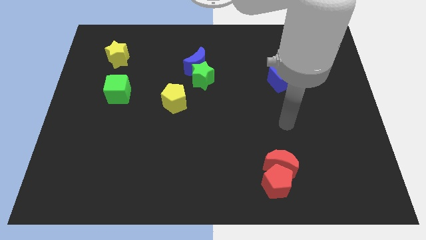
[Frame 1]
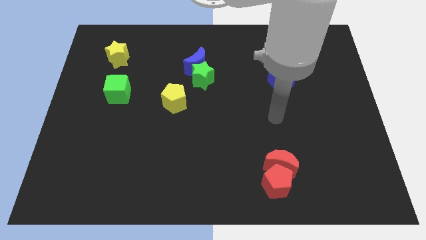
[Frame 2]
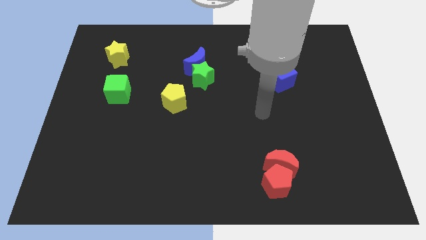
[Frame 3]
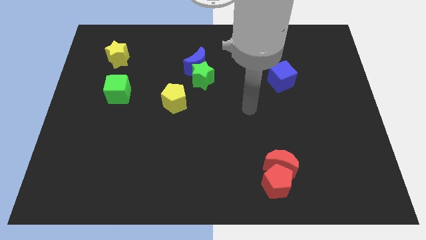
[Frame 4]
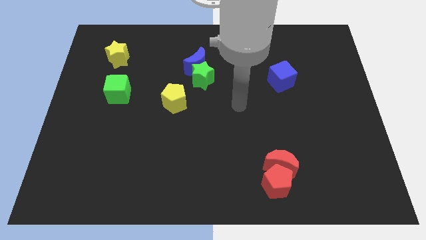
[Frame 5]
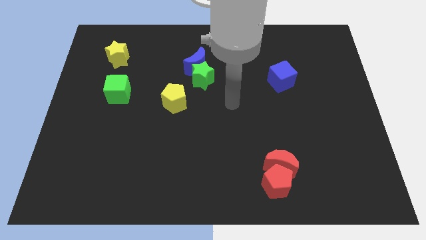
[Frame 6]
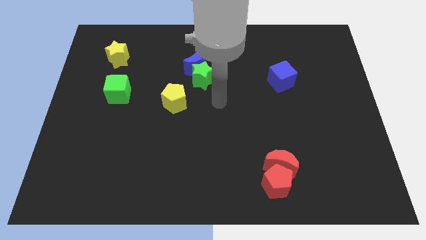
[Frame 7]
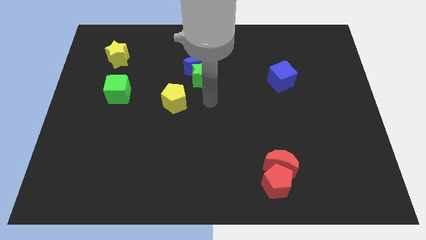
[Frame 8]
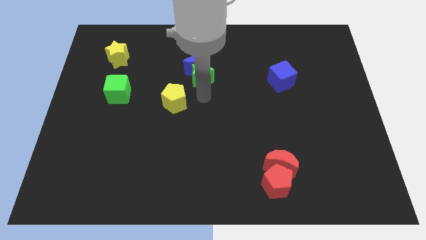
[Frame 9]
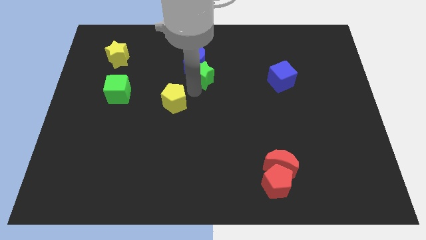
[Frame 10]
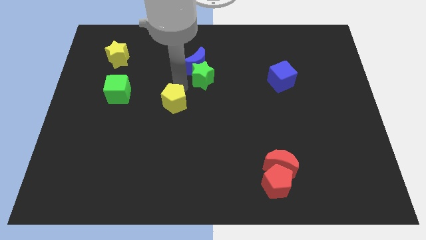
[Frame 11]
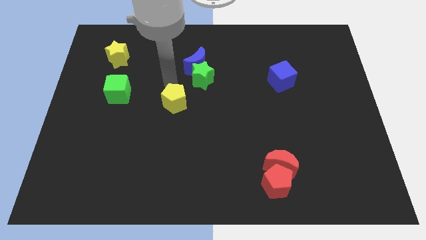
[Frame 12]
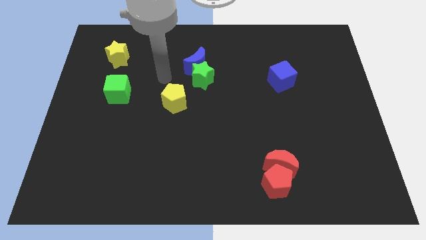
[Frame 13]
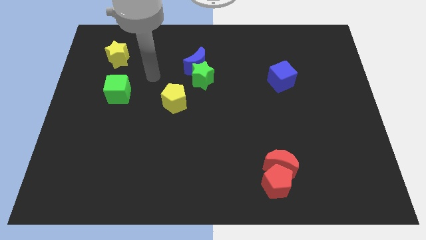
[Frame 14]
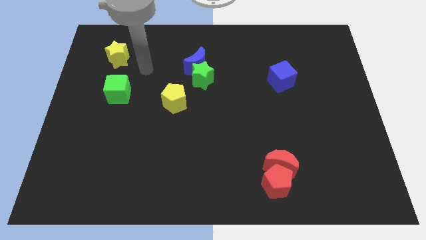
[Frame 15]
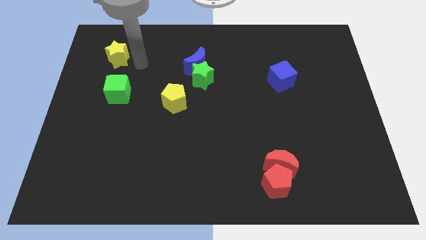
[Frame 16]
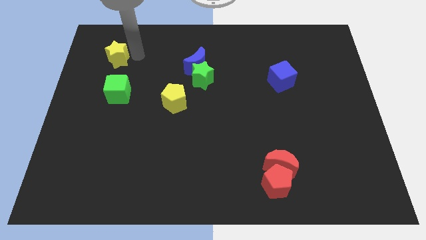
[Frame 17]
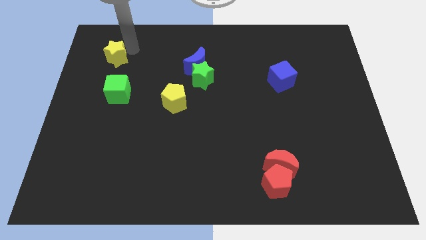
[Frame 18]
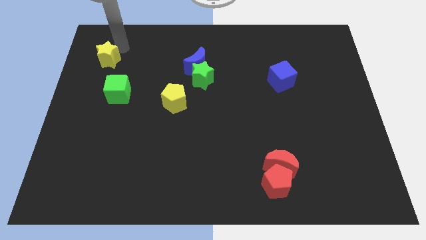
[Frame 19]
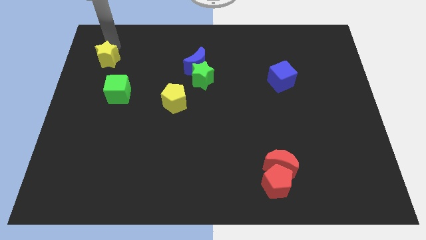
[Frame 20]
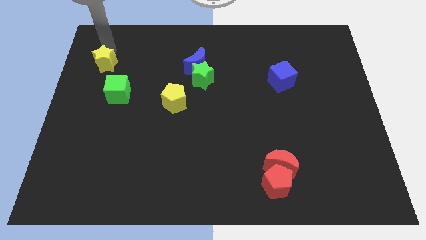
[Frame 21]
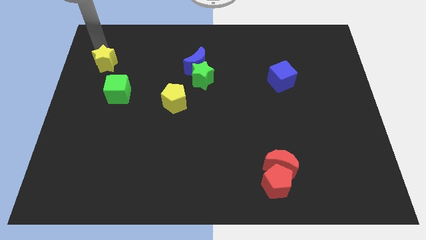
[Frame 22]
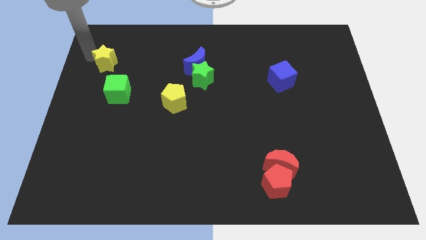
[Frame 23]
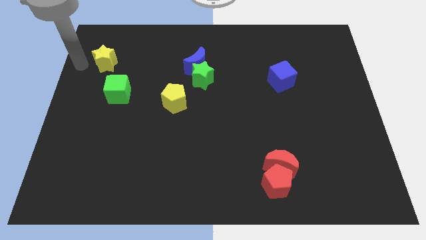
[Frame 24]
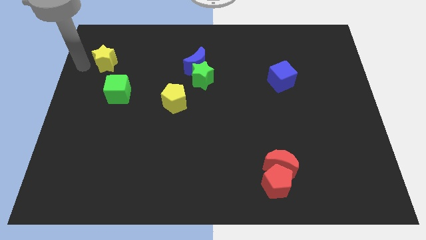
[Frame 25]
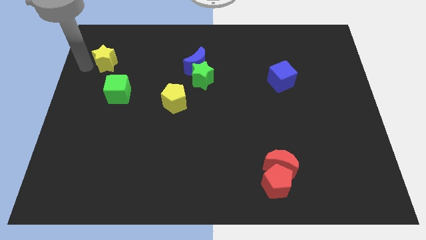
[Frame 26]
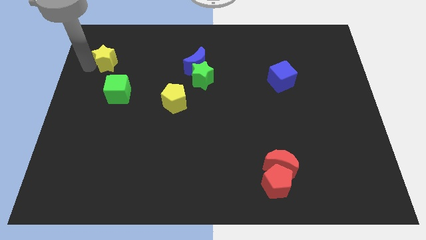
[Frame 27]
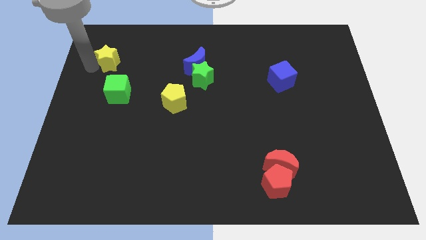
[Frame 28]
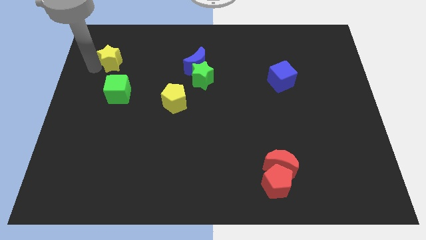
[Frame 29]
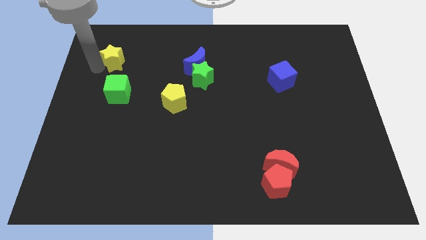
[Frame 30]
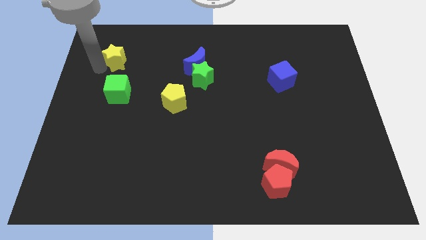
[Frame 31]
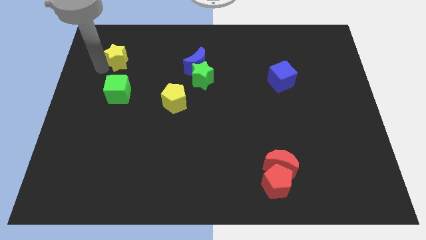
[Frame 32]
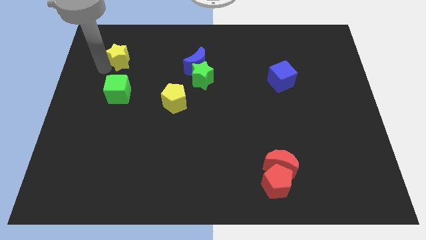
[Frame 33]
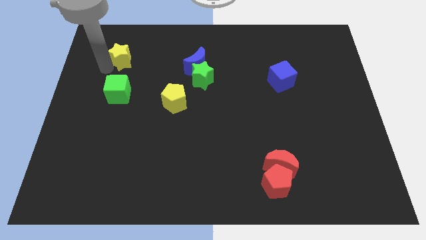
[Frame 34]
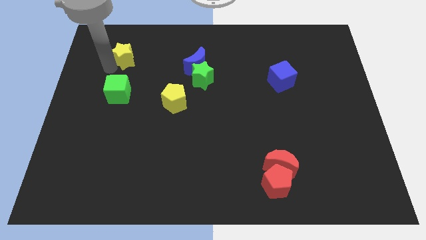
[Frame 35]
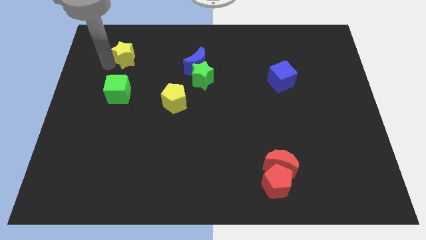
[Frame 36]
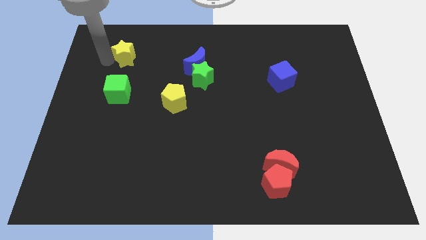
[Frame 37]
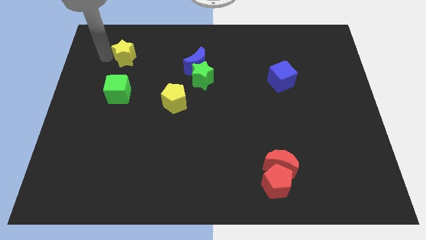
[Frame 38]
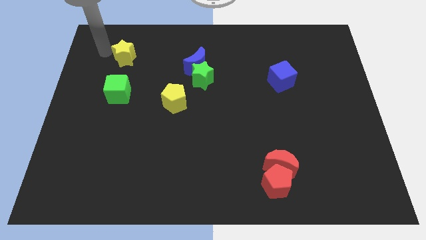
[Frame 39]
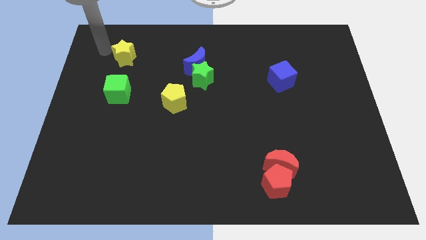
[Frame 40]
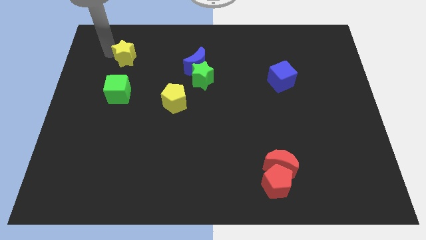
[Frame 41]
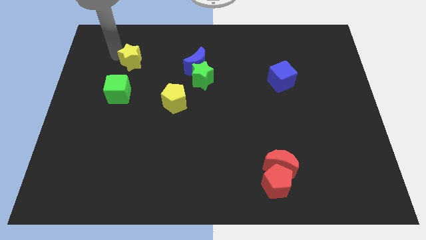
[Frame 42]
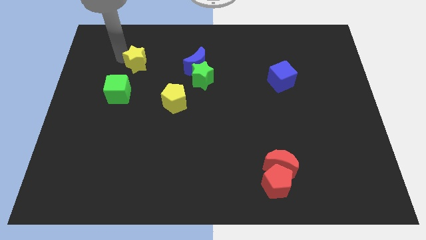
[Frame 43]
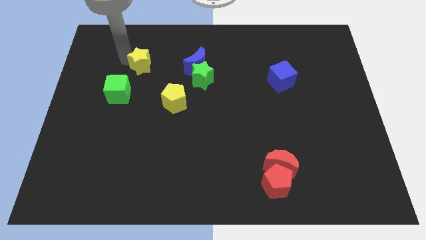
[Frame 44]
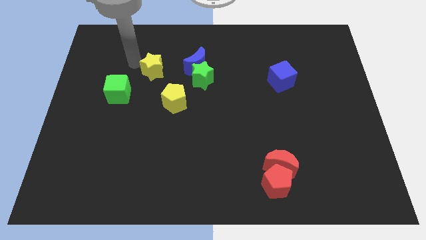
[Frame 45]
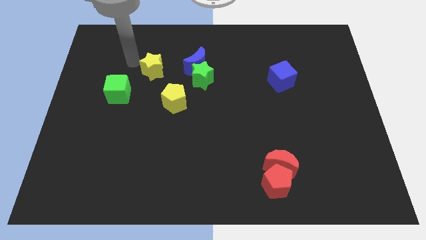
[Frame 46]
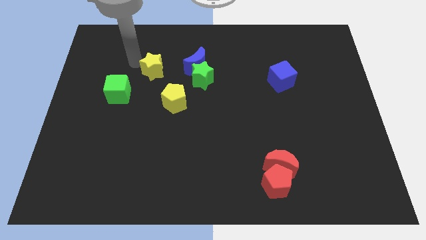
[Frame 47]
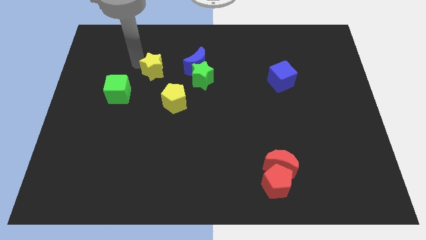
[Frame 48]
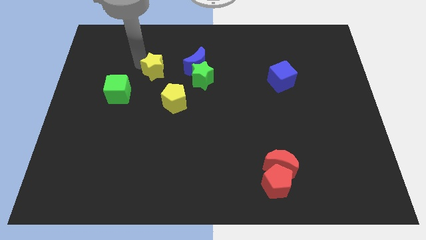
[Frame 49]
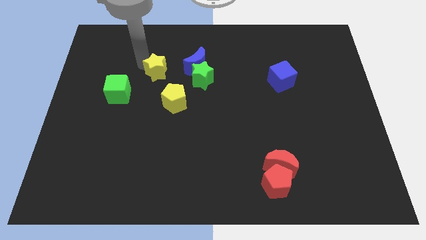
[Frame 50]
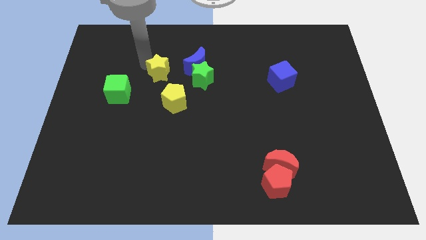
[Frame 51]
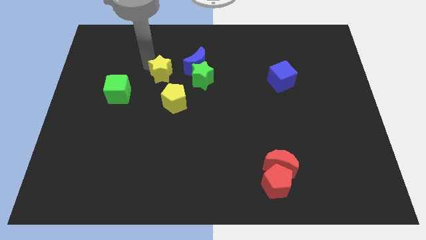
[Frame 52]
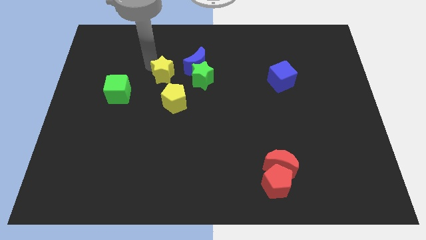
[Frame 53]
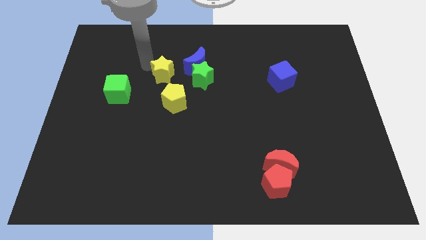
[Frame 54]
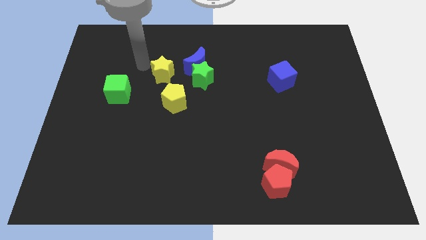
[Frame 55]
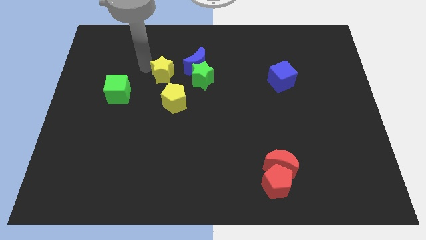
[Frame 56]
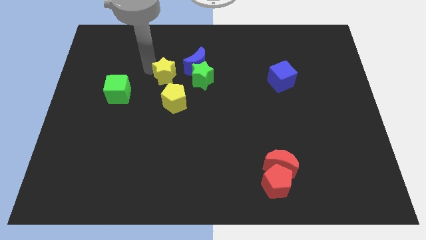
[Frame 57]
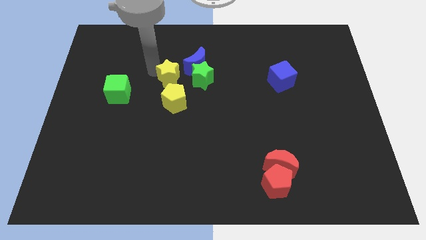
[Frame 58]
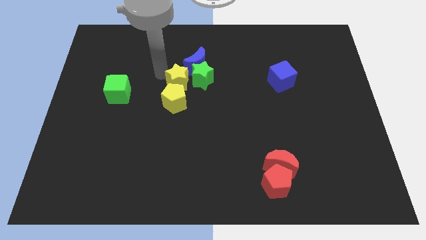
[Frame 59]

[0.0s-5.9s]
put the yellow star to the middle of the board

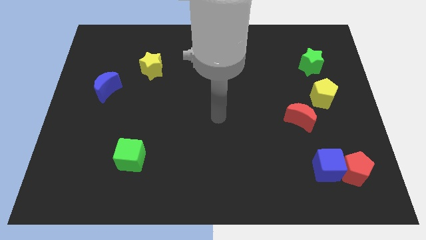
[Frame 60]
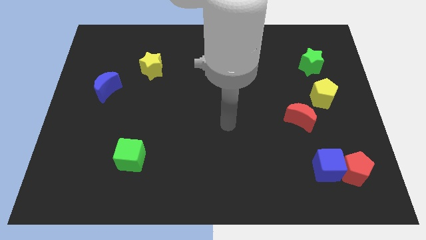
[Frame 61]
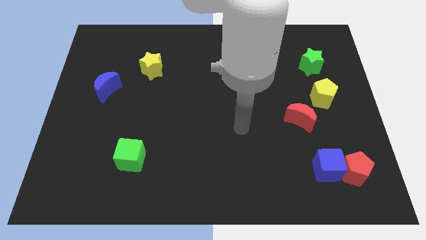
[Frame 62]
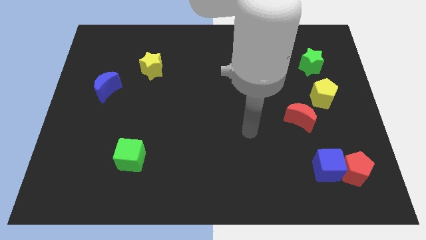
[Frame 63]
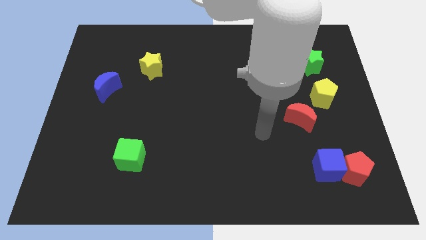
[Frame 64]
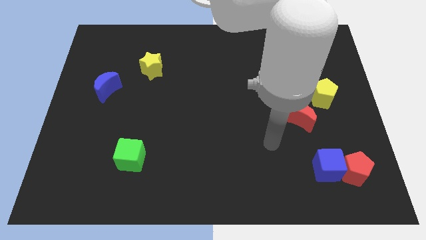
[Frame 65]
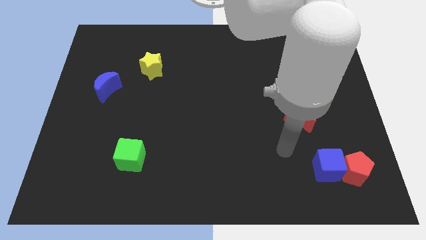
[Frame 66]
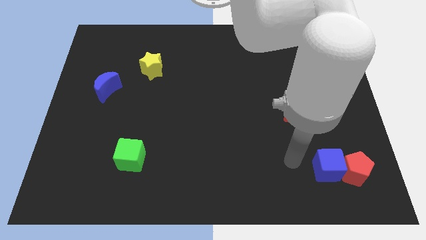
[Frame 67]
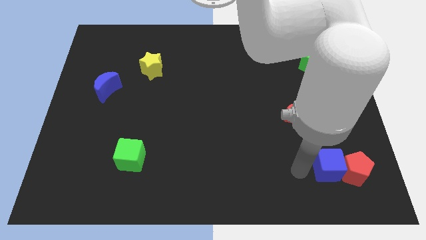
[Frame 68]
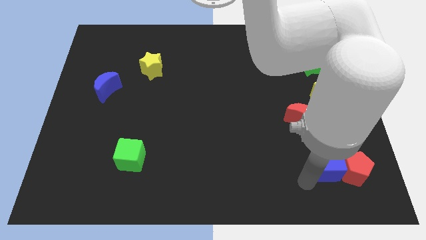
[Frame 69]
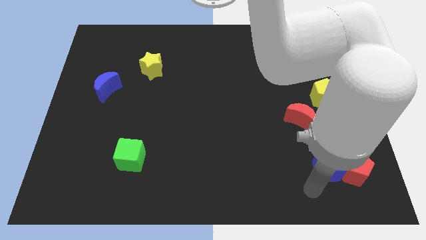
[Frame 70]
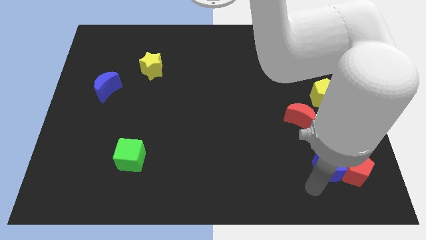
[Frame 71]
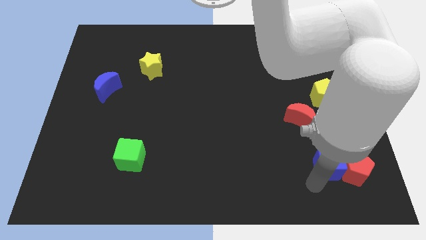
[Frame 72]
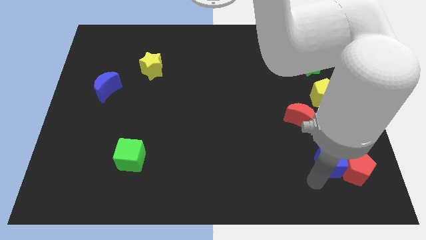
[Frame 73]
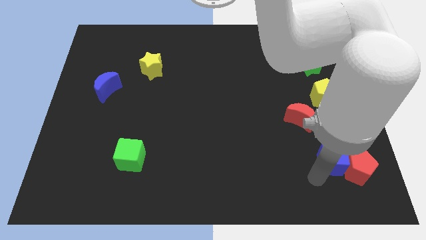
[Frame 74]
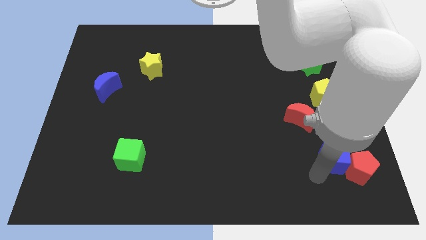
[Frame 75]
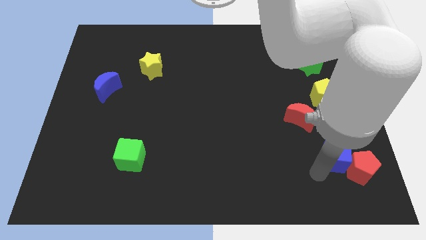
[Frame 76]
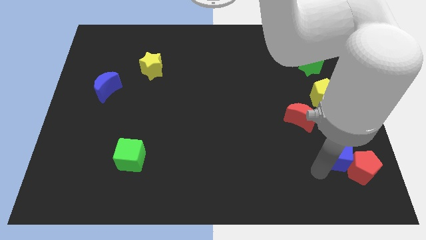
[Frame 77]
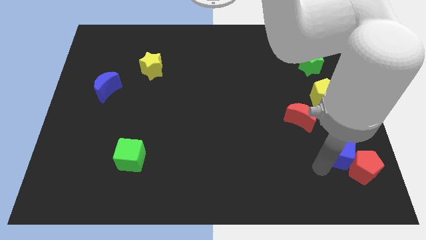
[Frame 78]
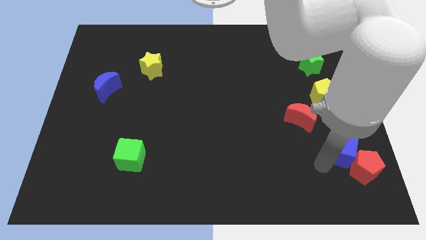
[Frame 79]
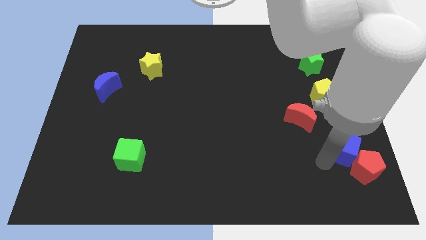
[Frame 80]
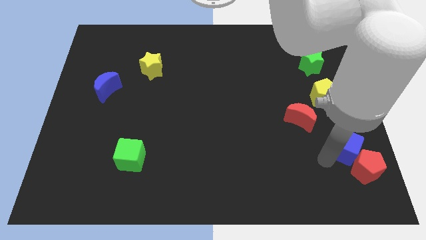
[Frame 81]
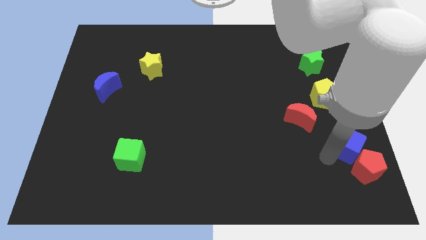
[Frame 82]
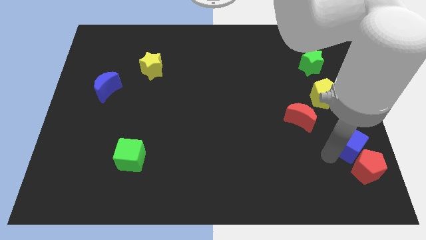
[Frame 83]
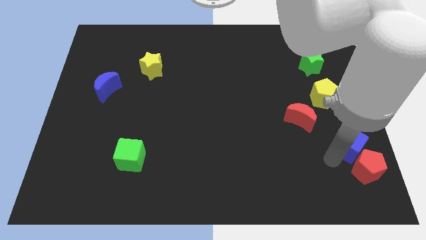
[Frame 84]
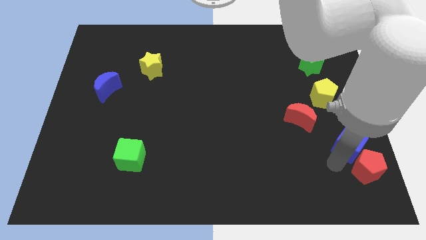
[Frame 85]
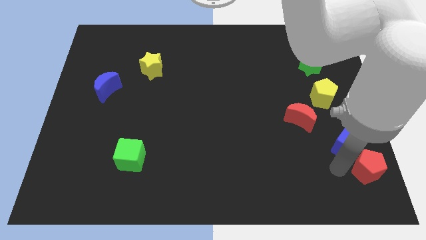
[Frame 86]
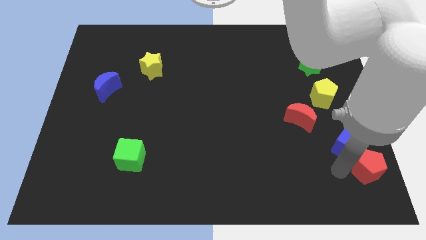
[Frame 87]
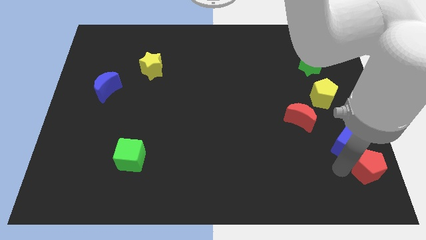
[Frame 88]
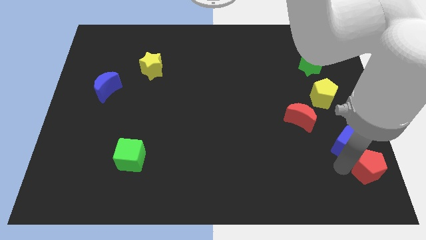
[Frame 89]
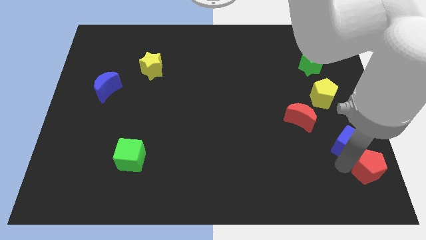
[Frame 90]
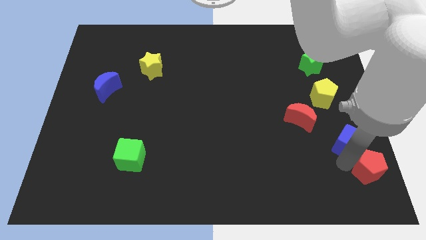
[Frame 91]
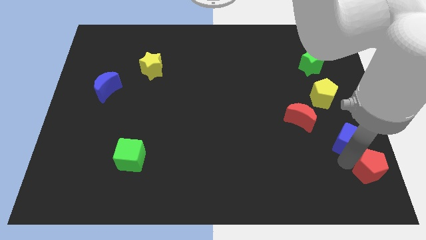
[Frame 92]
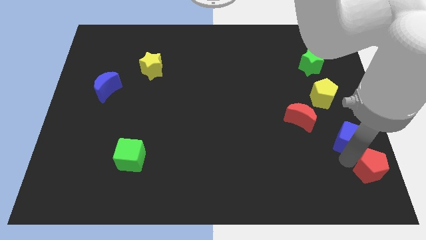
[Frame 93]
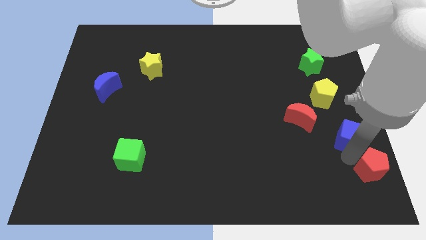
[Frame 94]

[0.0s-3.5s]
put the blue cube to the right side
